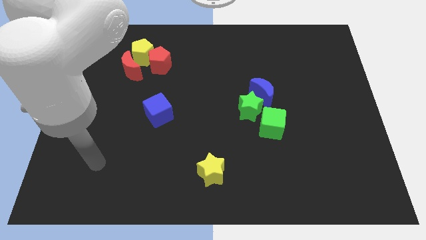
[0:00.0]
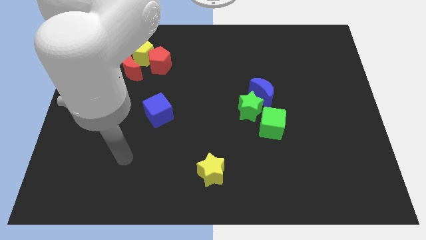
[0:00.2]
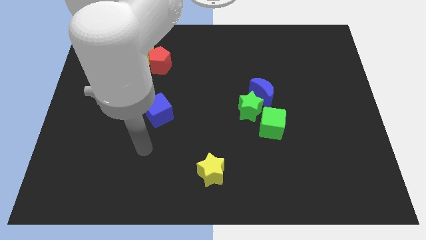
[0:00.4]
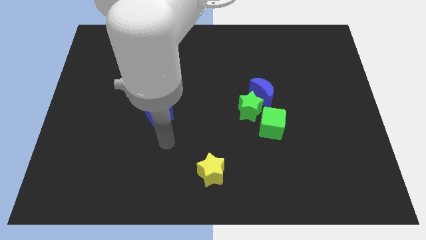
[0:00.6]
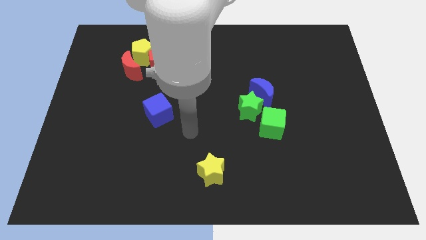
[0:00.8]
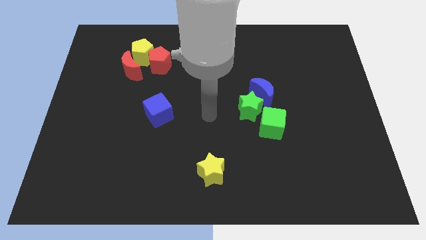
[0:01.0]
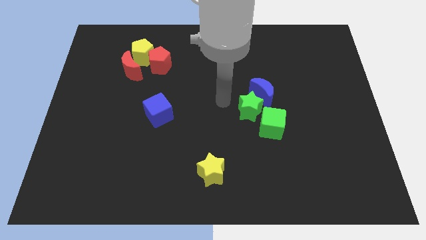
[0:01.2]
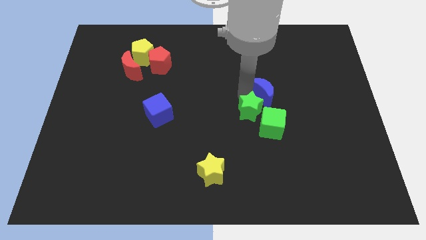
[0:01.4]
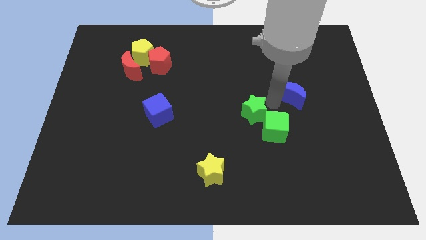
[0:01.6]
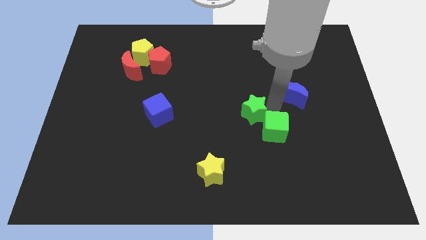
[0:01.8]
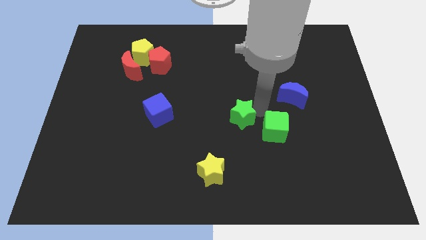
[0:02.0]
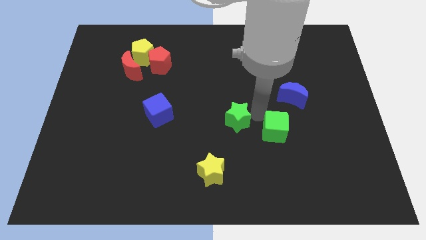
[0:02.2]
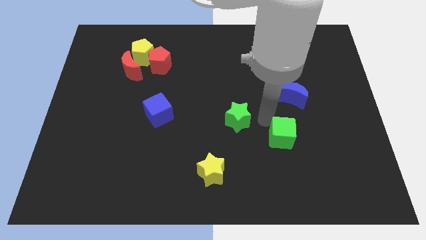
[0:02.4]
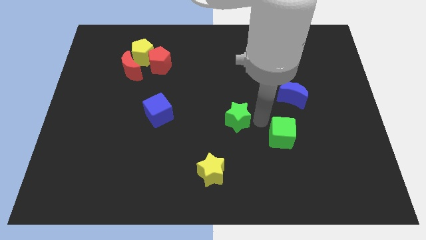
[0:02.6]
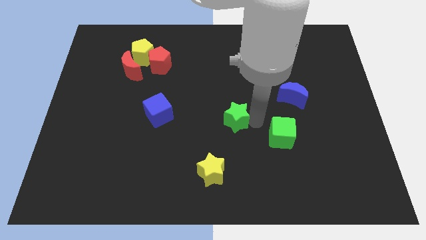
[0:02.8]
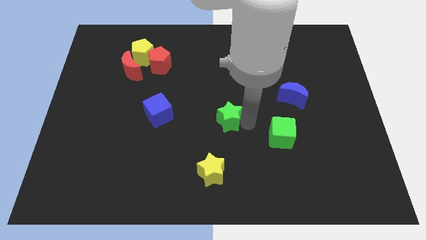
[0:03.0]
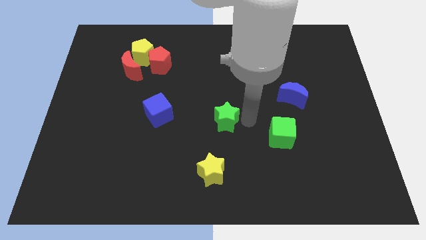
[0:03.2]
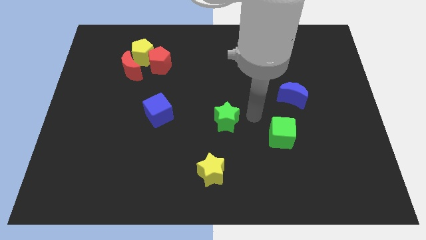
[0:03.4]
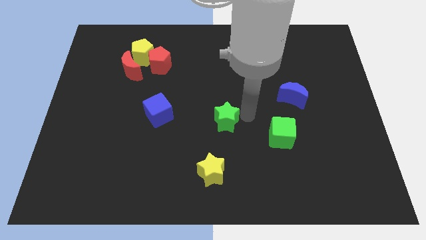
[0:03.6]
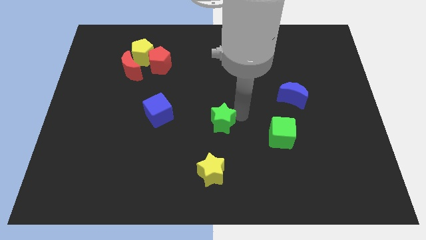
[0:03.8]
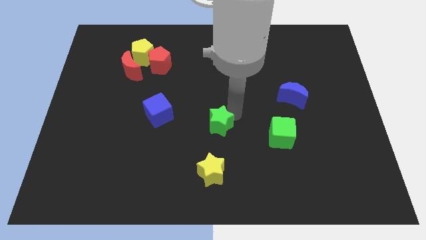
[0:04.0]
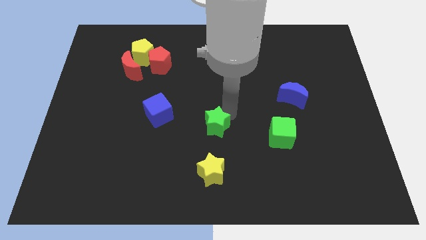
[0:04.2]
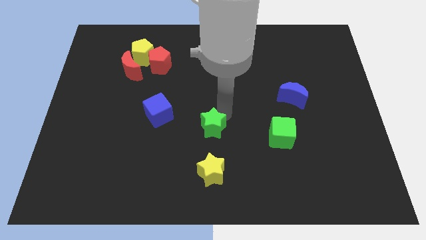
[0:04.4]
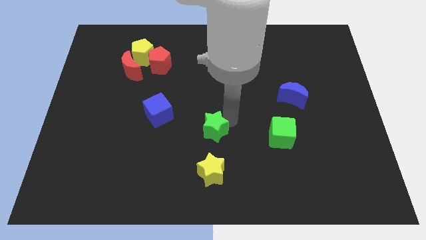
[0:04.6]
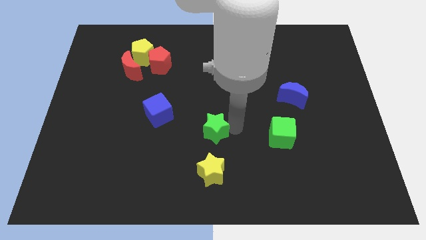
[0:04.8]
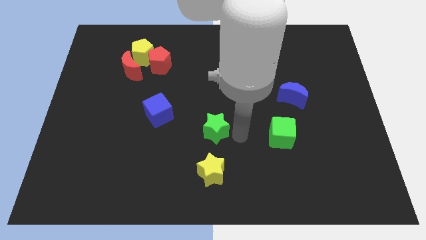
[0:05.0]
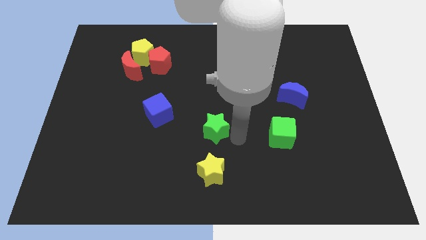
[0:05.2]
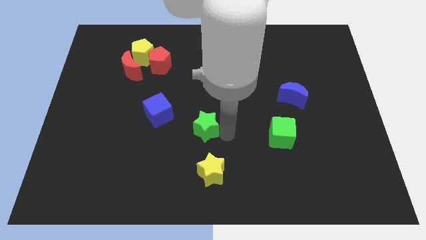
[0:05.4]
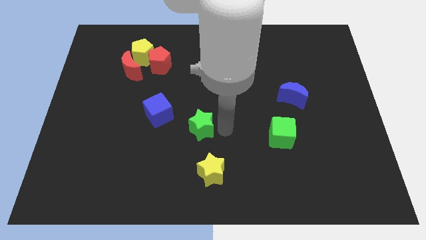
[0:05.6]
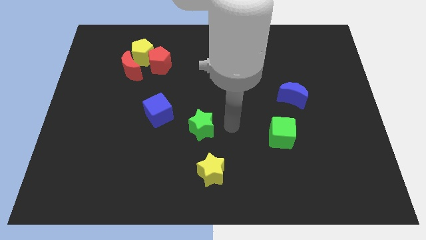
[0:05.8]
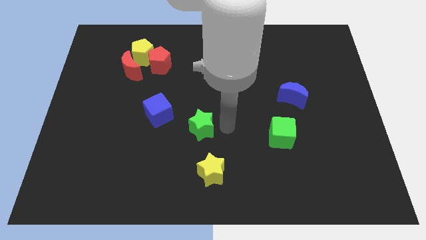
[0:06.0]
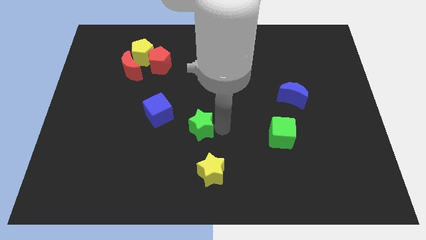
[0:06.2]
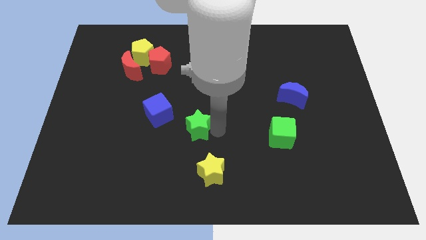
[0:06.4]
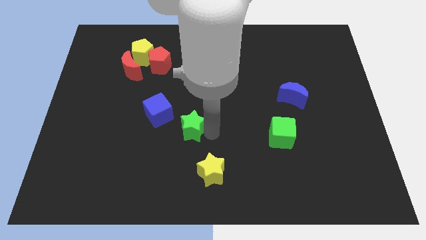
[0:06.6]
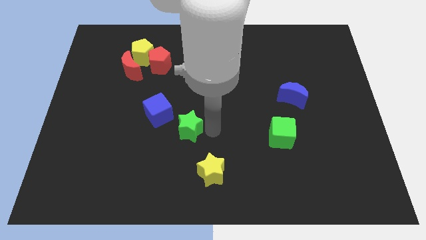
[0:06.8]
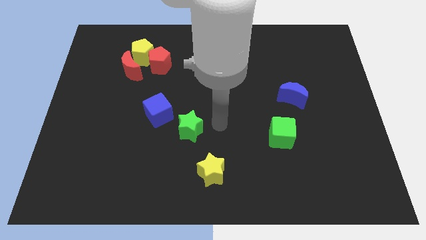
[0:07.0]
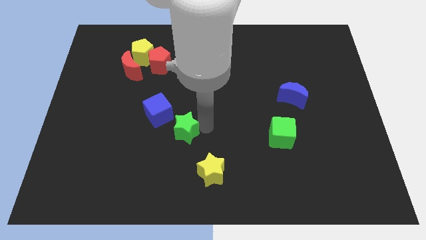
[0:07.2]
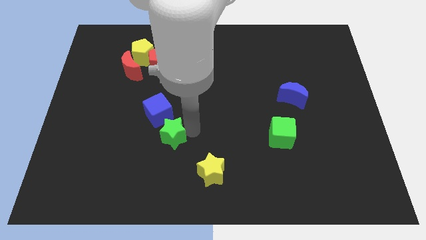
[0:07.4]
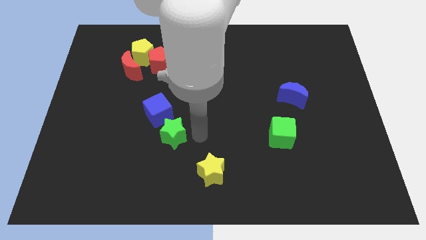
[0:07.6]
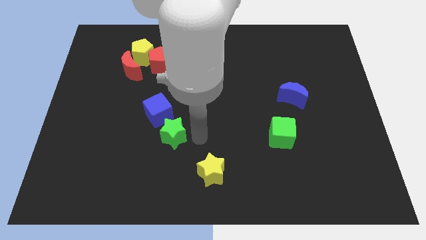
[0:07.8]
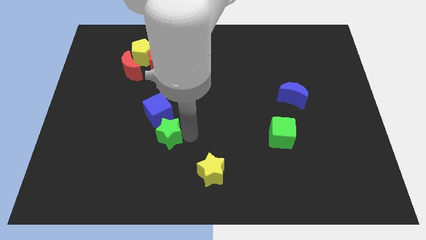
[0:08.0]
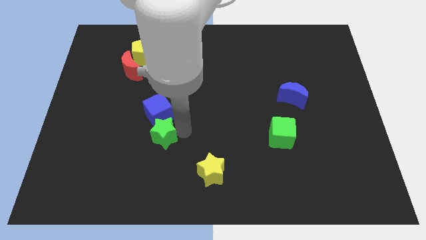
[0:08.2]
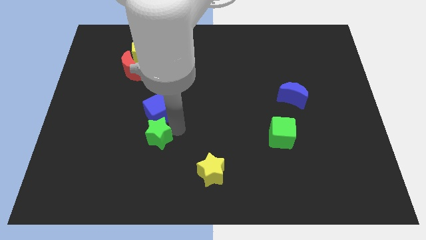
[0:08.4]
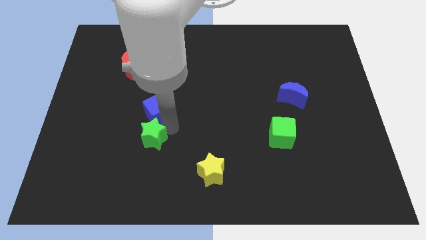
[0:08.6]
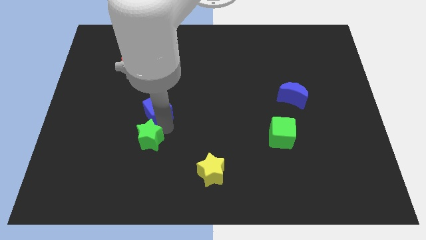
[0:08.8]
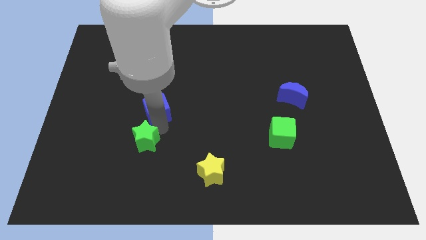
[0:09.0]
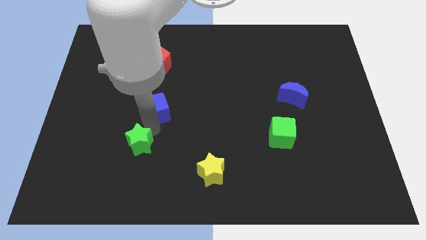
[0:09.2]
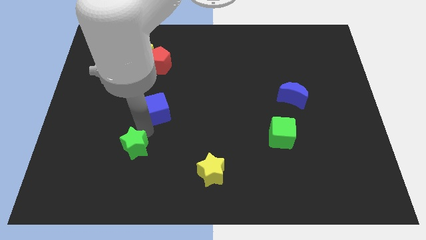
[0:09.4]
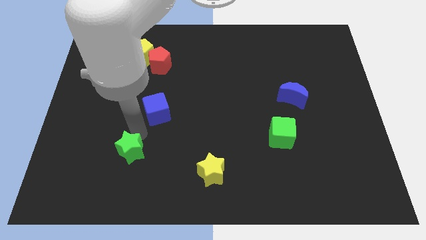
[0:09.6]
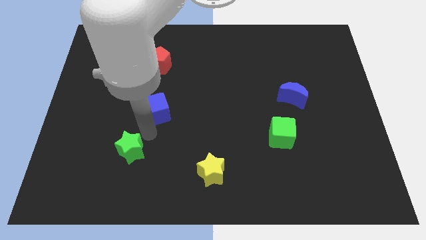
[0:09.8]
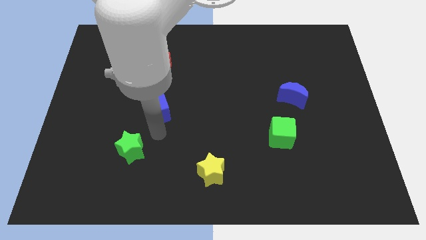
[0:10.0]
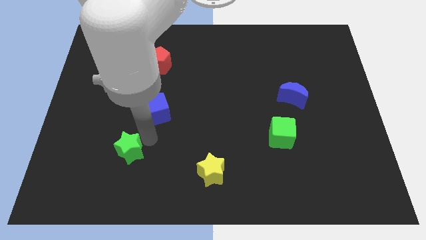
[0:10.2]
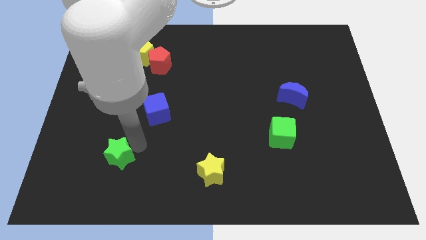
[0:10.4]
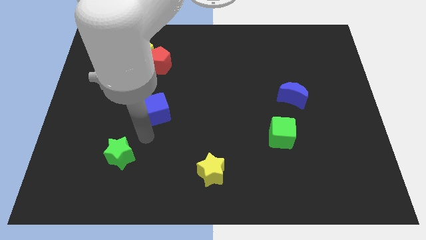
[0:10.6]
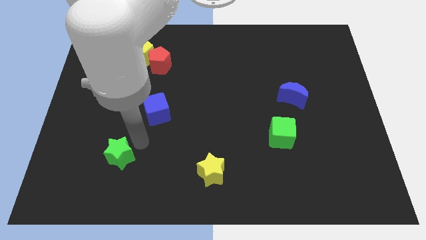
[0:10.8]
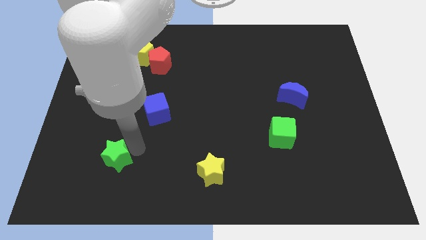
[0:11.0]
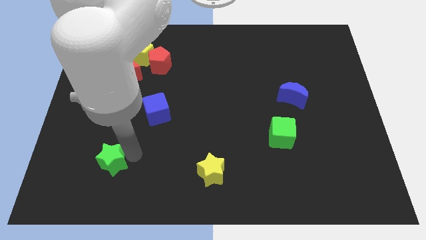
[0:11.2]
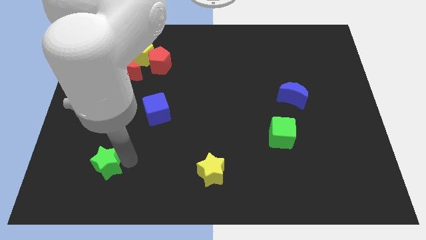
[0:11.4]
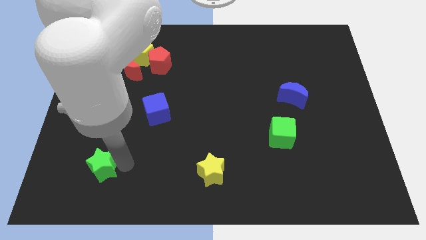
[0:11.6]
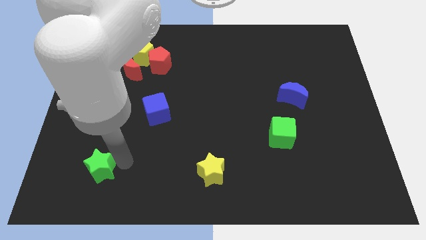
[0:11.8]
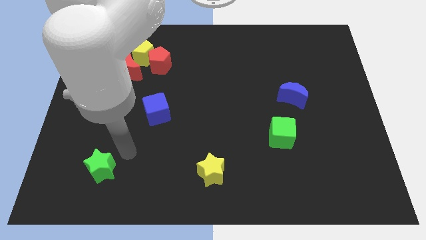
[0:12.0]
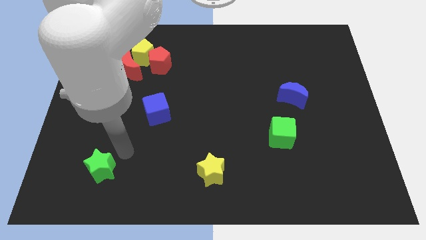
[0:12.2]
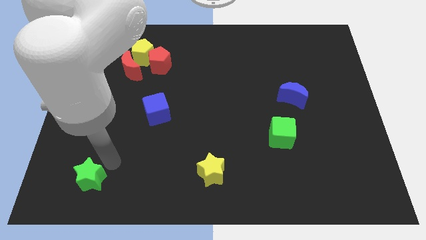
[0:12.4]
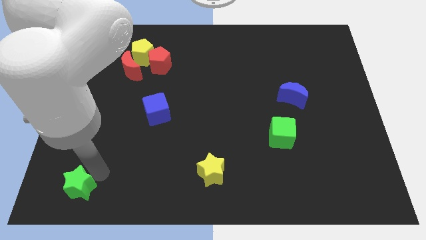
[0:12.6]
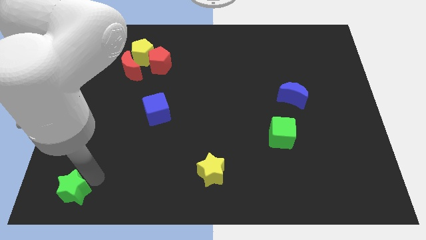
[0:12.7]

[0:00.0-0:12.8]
move the green star to the bottom left
